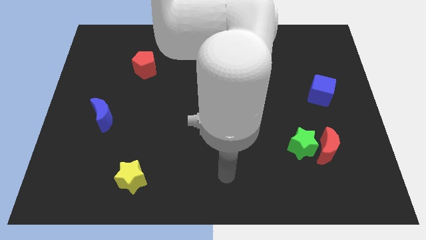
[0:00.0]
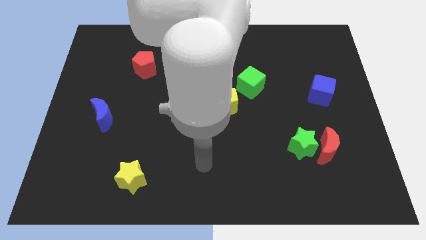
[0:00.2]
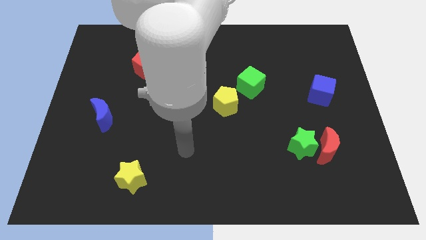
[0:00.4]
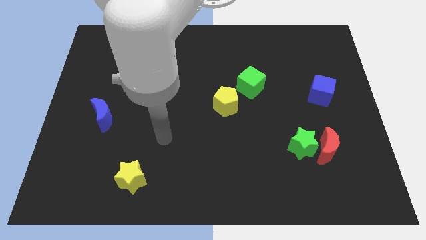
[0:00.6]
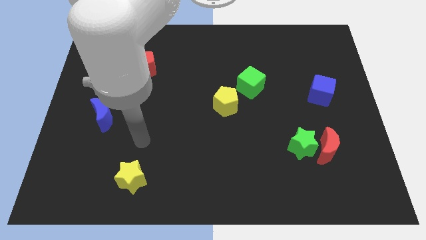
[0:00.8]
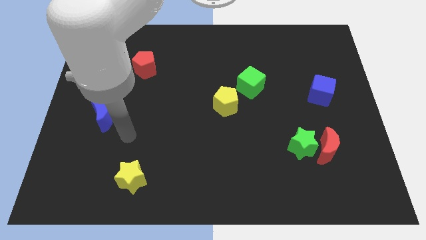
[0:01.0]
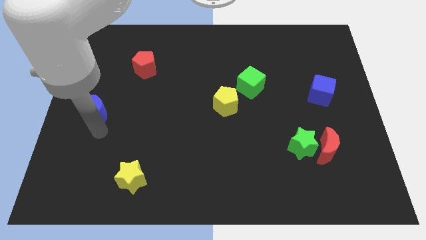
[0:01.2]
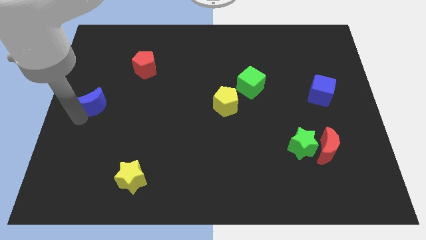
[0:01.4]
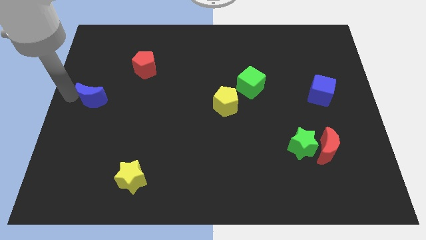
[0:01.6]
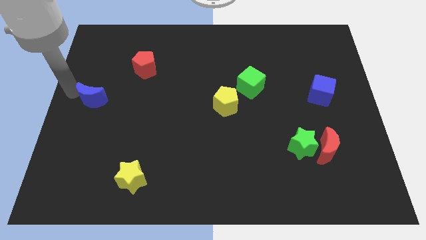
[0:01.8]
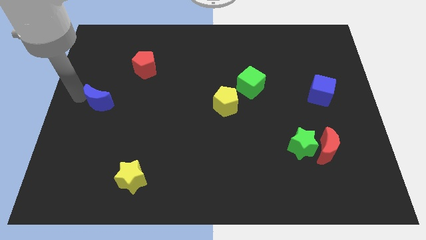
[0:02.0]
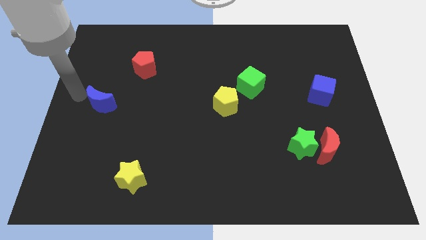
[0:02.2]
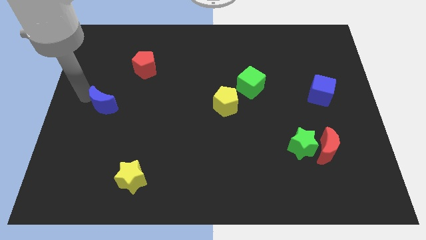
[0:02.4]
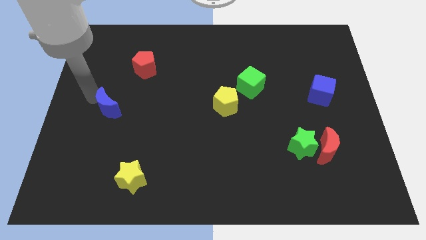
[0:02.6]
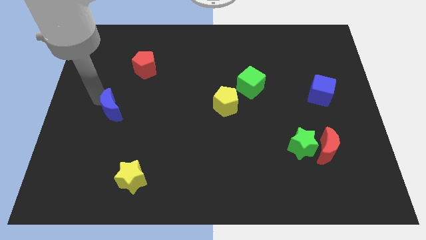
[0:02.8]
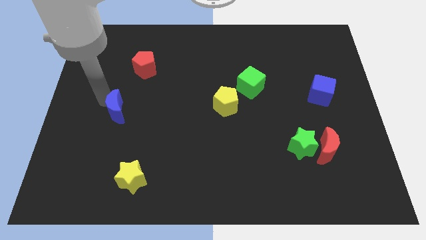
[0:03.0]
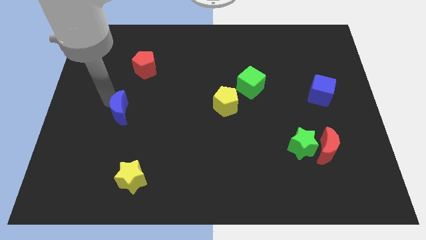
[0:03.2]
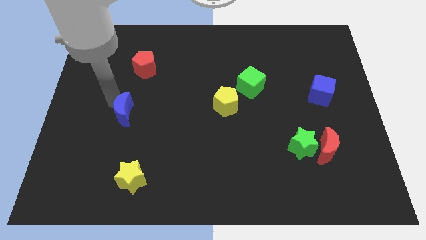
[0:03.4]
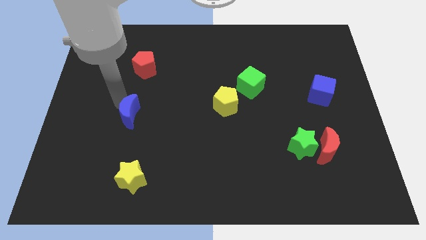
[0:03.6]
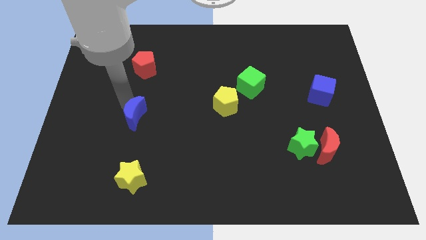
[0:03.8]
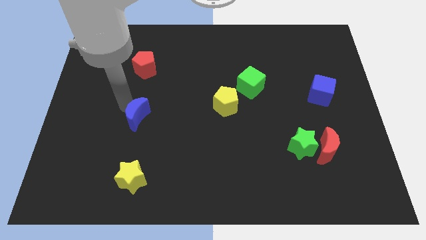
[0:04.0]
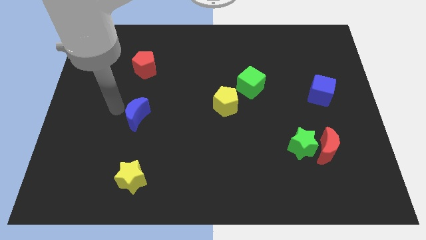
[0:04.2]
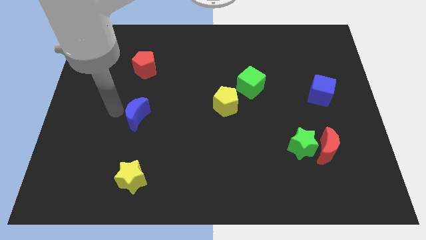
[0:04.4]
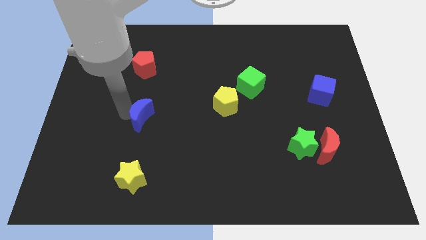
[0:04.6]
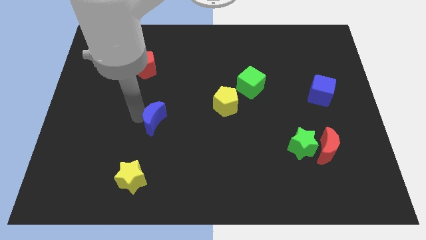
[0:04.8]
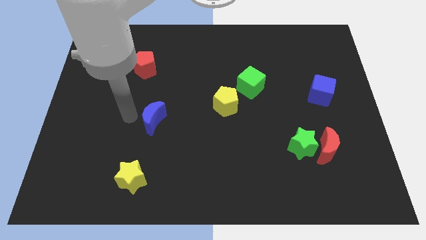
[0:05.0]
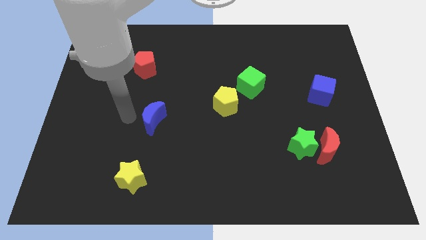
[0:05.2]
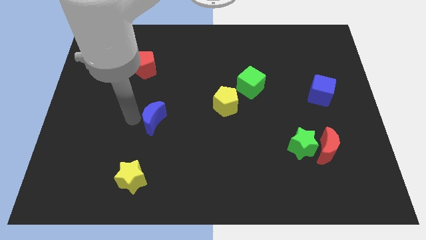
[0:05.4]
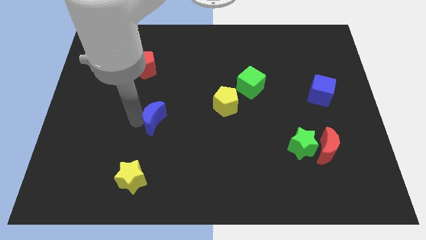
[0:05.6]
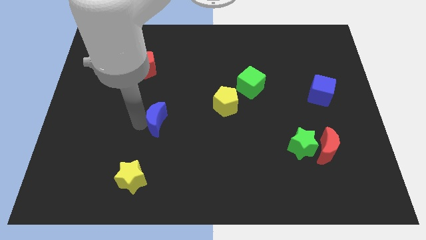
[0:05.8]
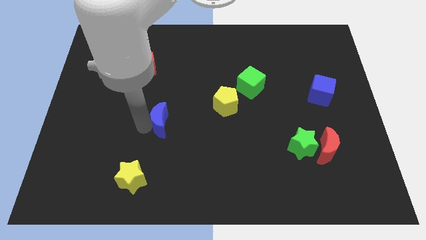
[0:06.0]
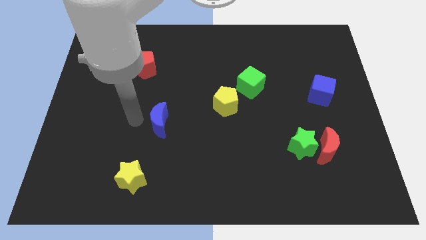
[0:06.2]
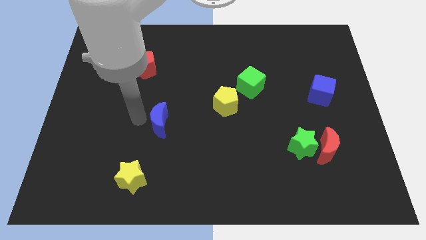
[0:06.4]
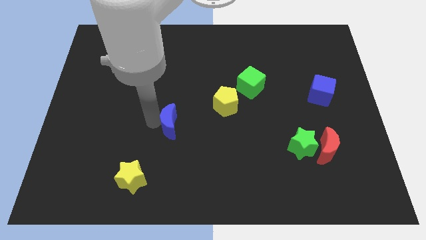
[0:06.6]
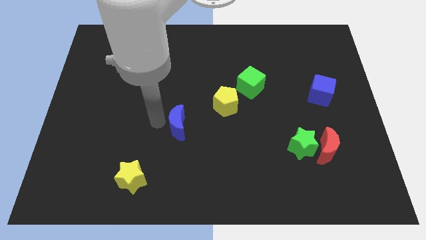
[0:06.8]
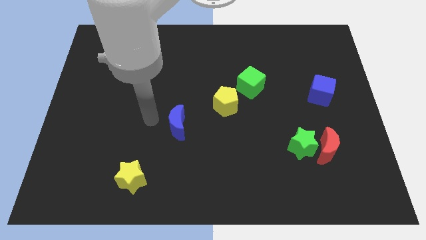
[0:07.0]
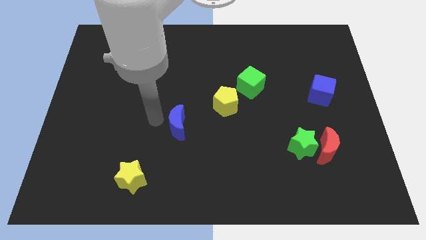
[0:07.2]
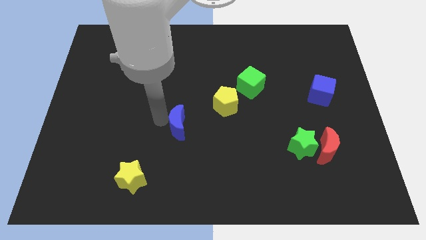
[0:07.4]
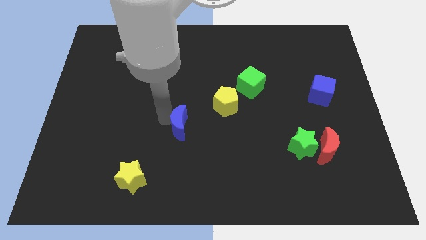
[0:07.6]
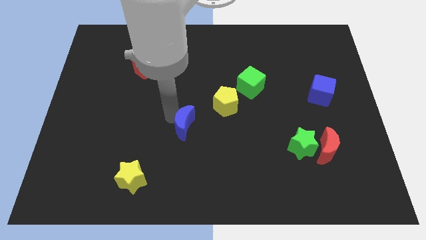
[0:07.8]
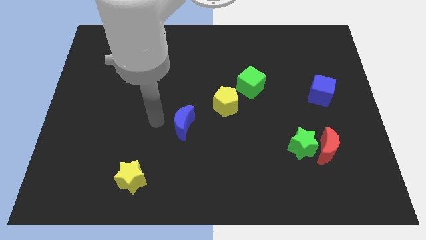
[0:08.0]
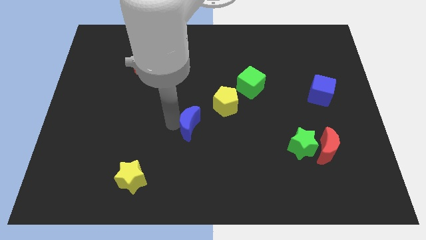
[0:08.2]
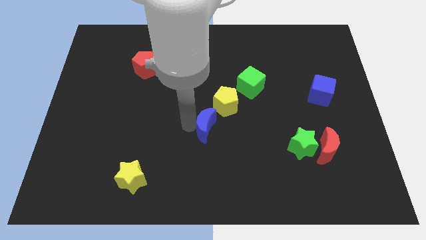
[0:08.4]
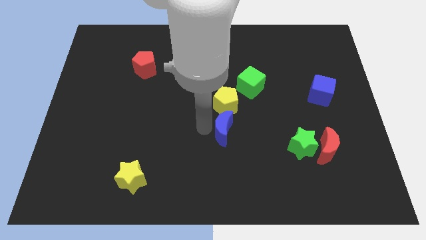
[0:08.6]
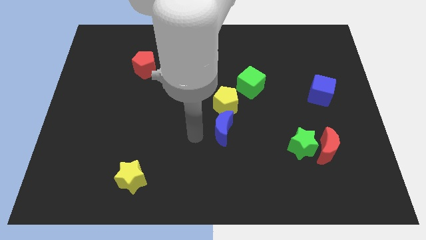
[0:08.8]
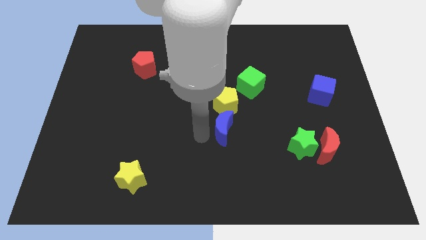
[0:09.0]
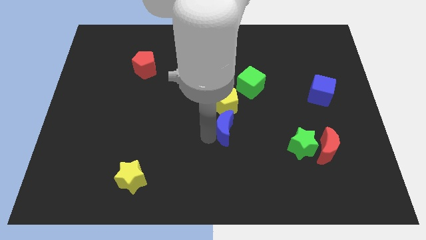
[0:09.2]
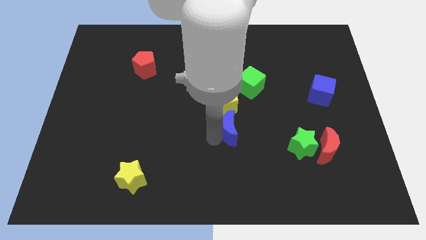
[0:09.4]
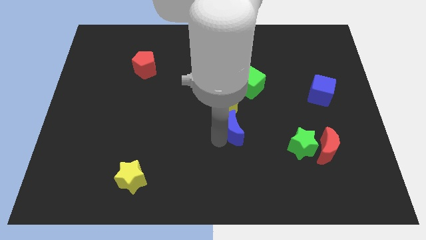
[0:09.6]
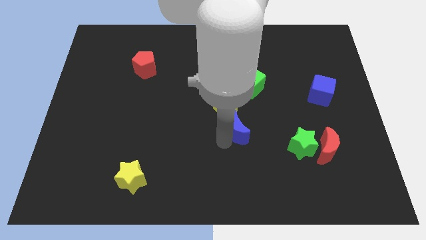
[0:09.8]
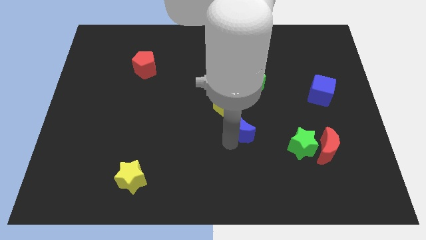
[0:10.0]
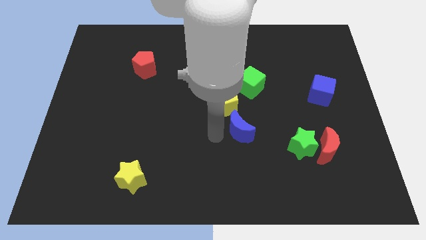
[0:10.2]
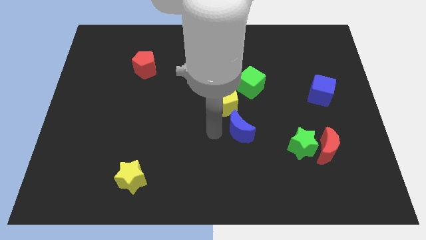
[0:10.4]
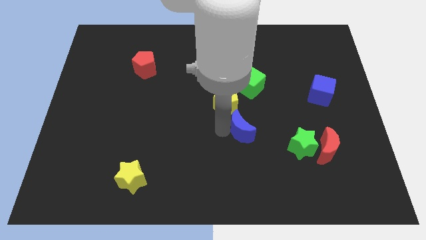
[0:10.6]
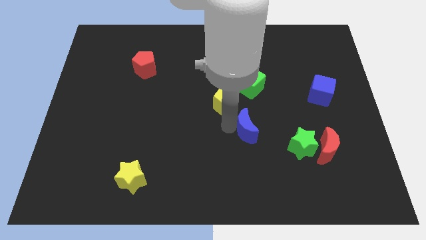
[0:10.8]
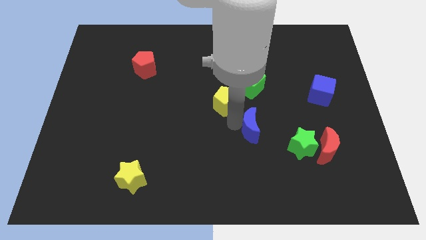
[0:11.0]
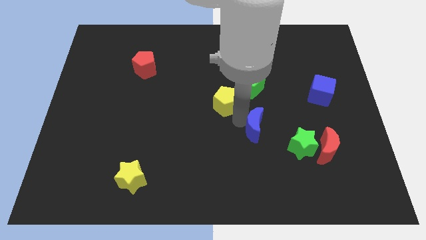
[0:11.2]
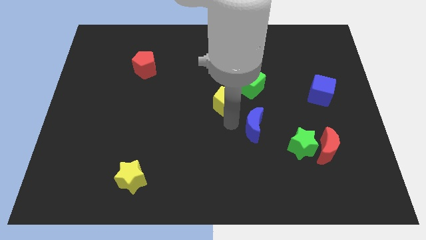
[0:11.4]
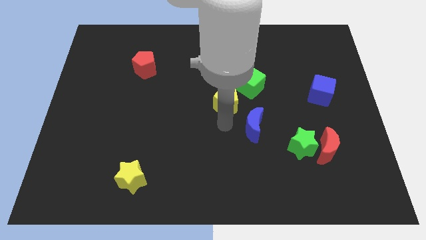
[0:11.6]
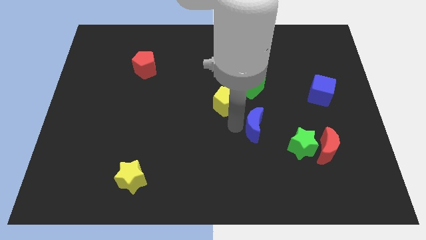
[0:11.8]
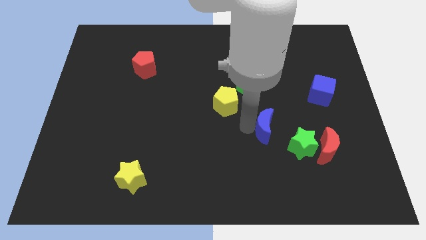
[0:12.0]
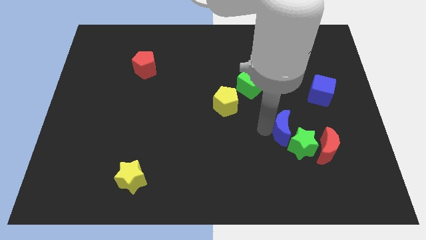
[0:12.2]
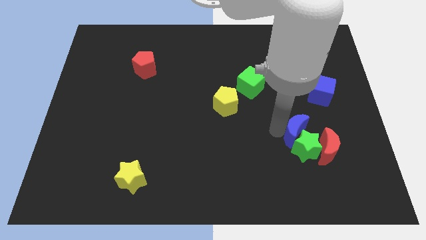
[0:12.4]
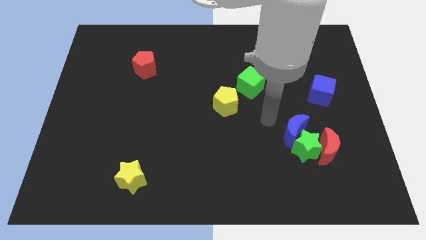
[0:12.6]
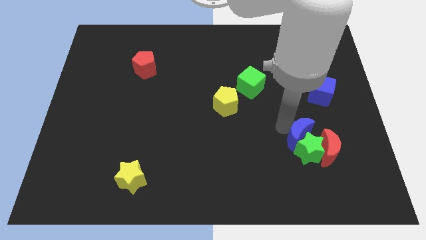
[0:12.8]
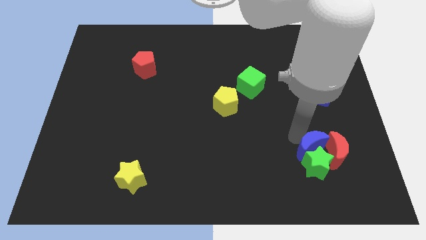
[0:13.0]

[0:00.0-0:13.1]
slide the blue moon to the red moon
